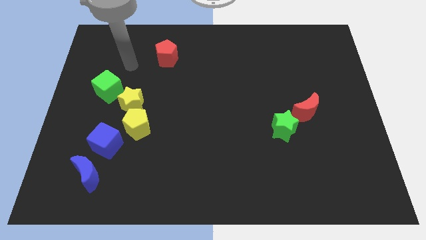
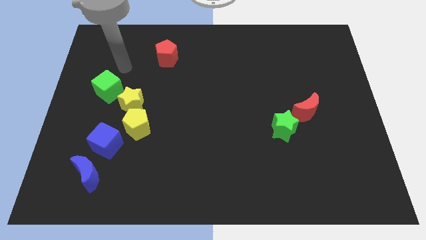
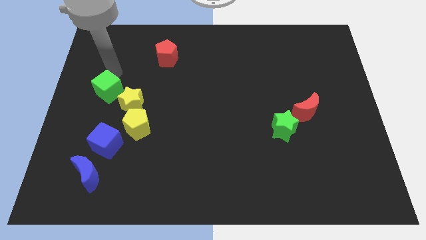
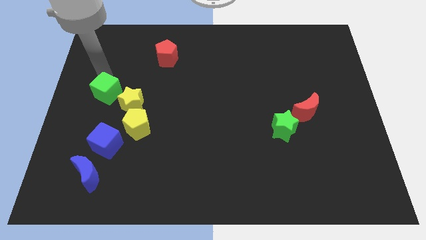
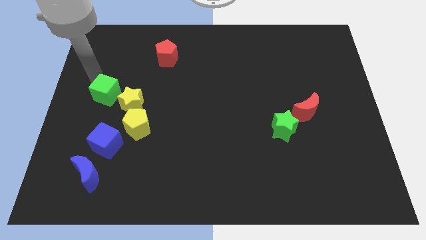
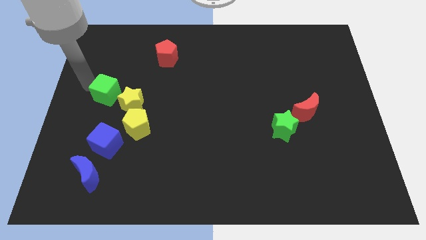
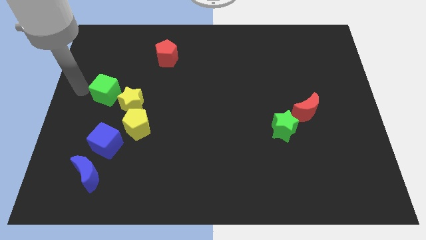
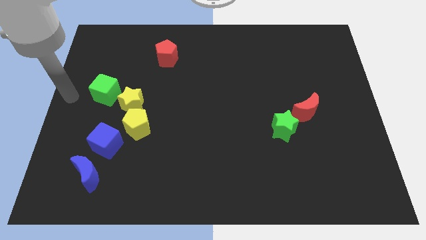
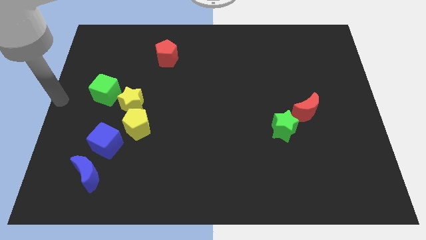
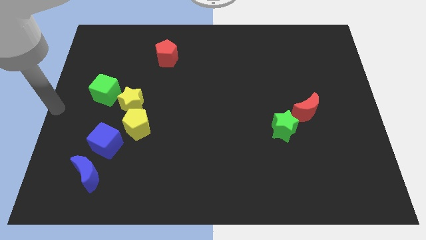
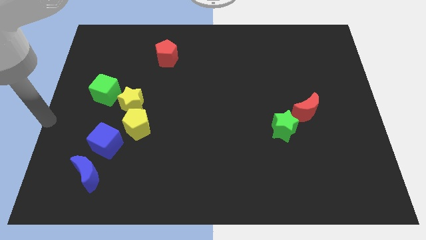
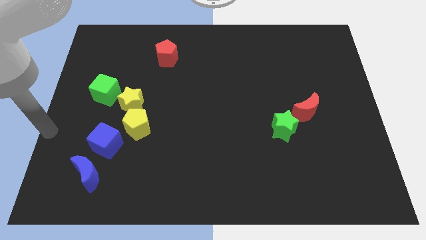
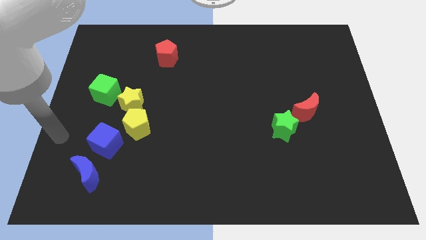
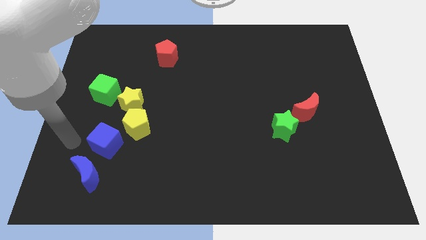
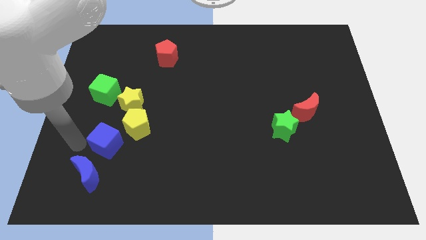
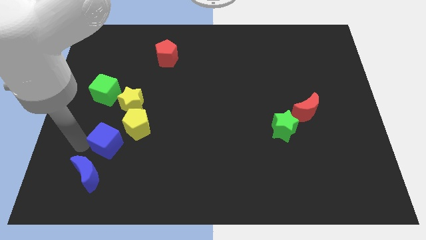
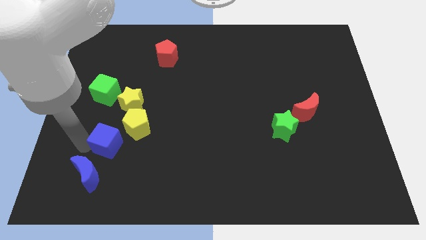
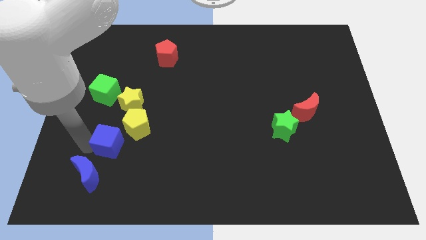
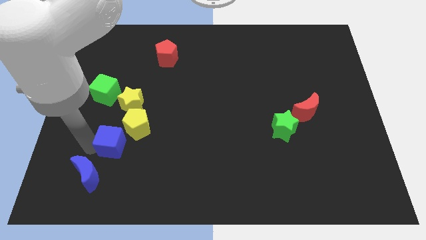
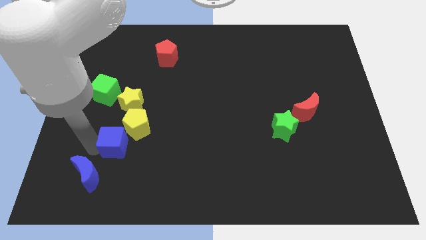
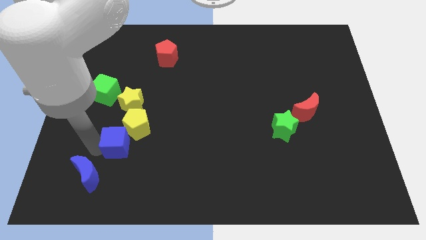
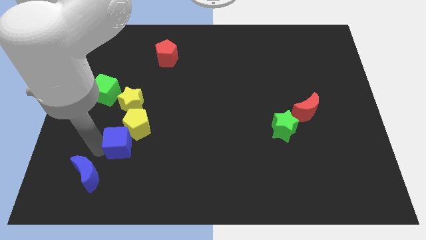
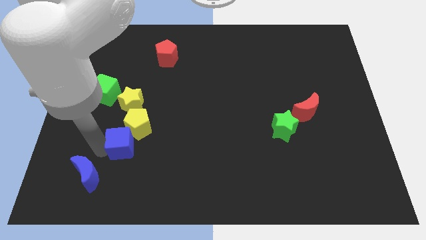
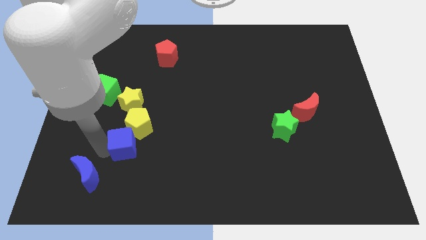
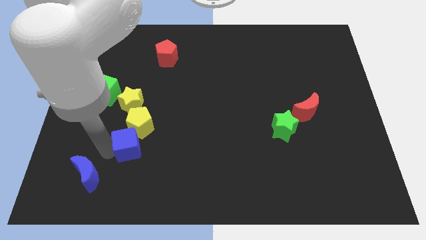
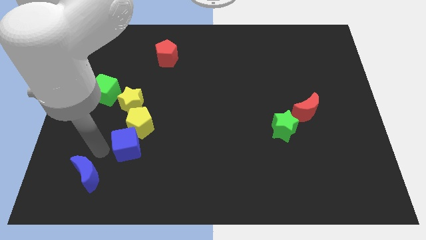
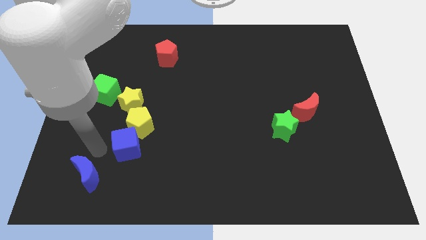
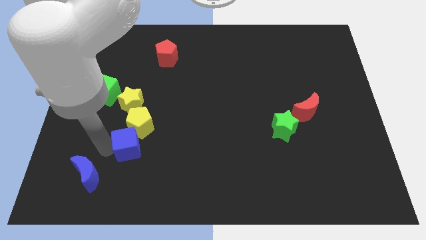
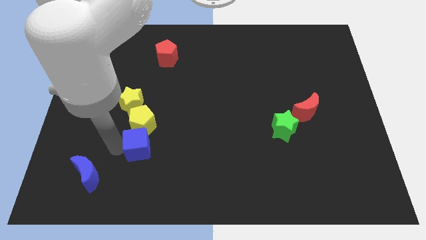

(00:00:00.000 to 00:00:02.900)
slide the blue cube to the right a little

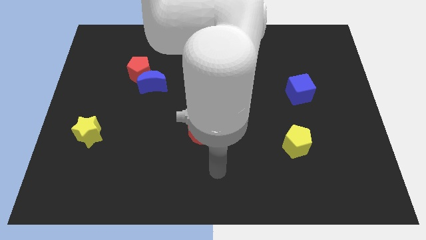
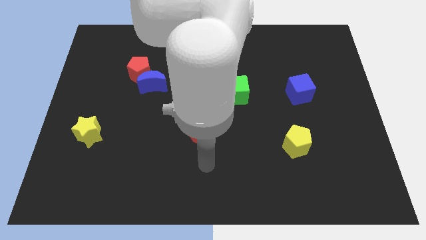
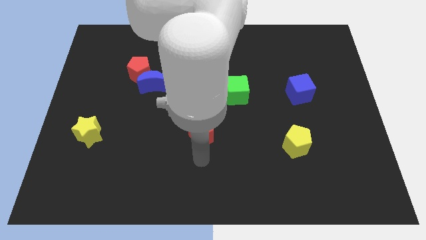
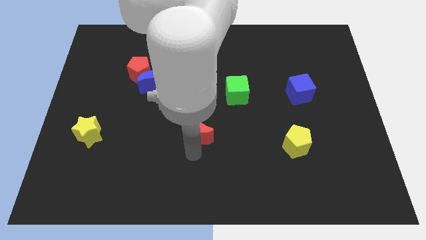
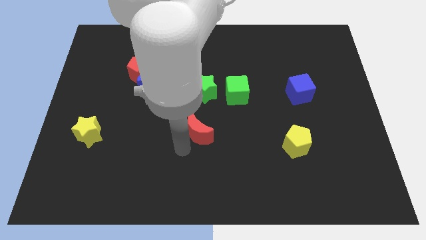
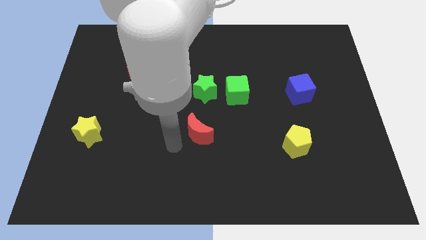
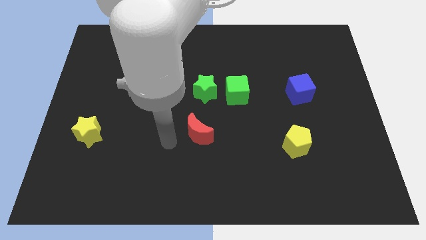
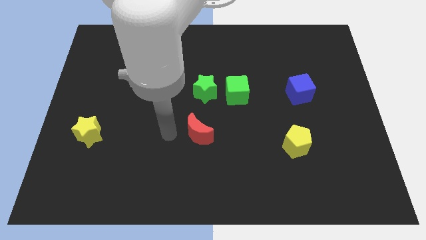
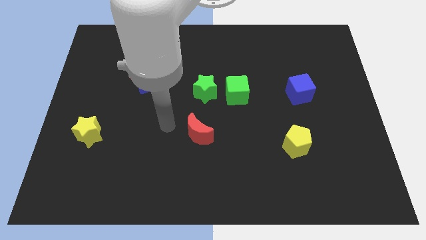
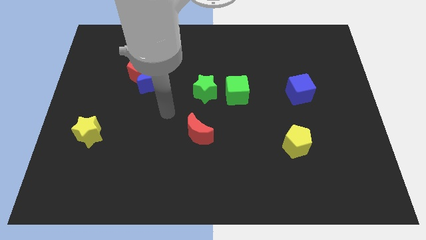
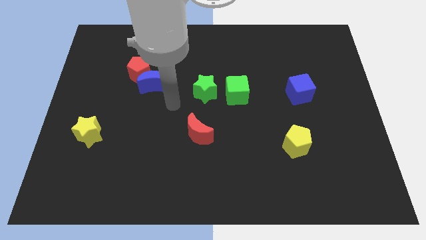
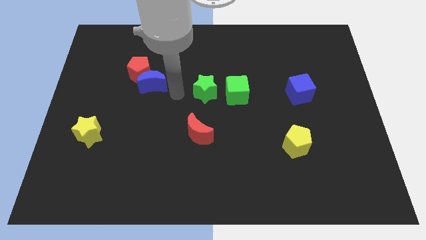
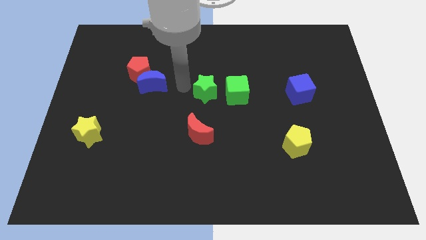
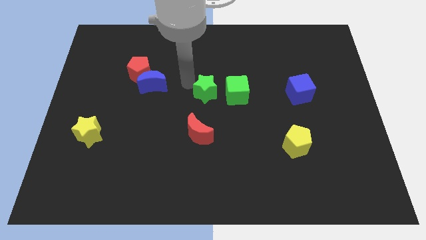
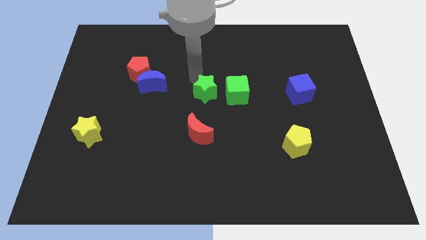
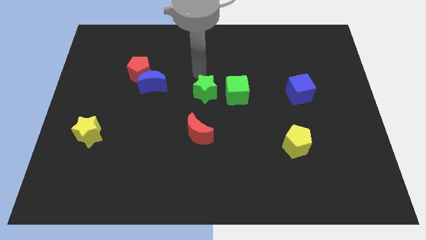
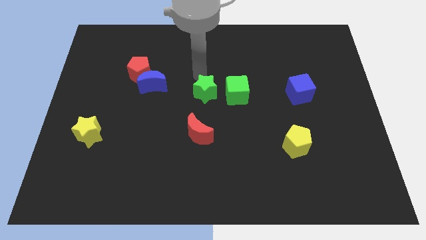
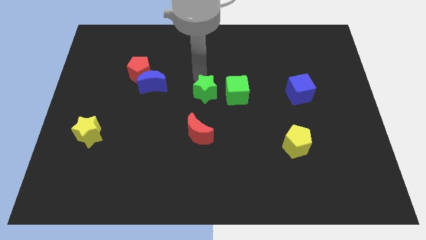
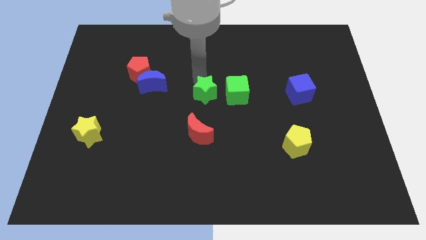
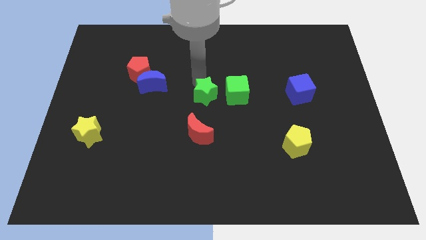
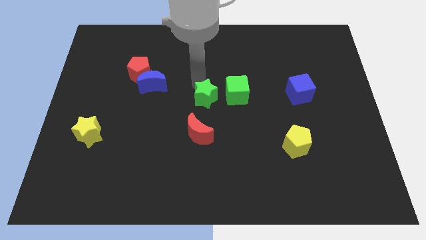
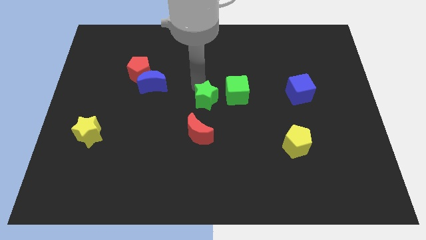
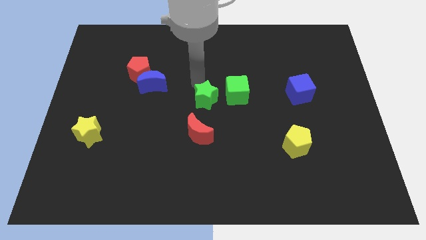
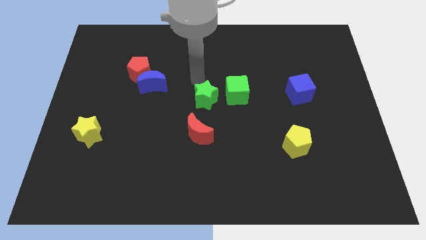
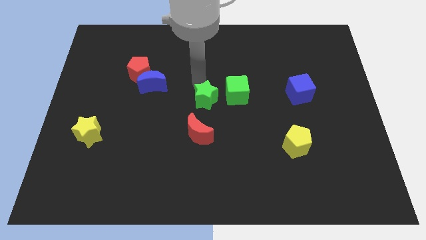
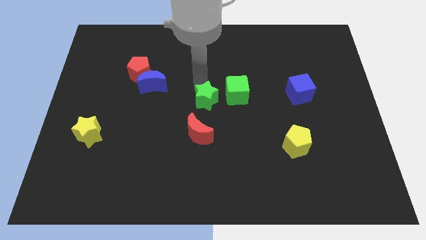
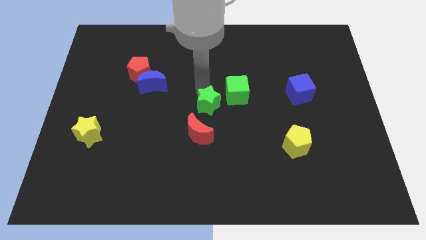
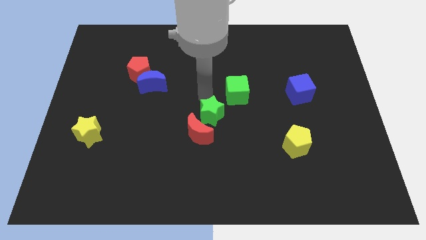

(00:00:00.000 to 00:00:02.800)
slightly move the green star downwards

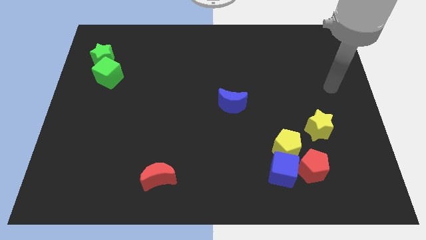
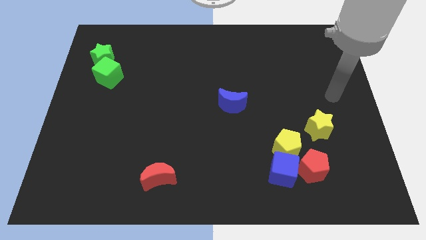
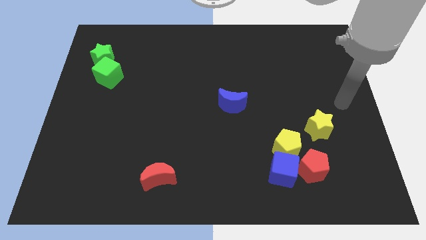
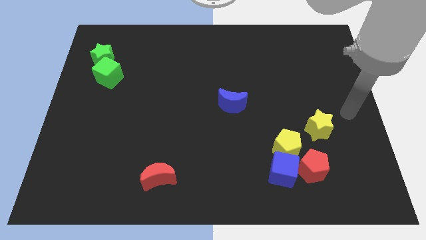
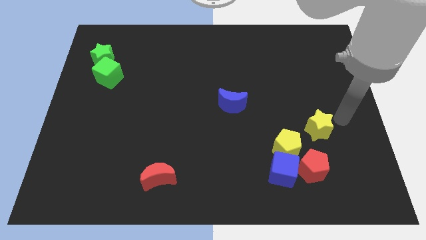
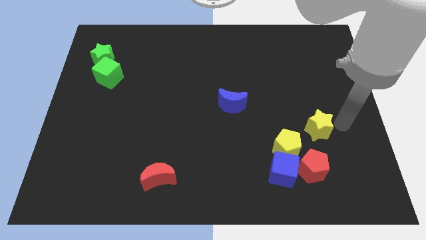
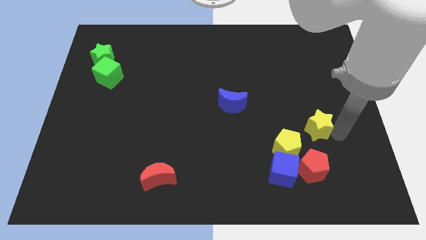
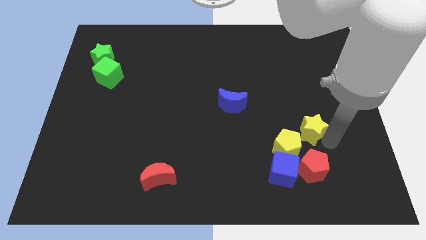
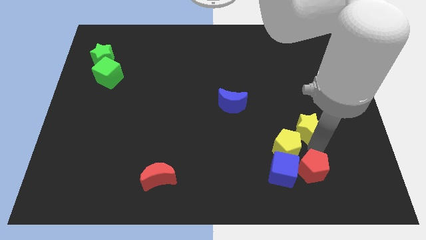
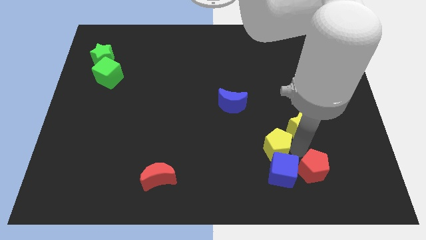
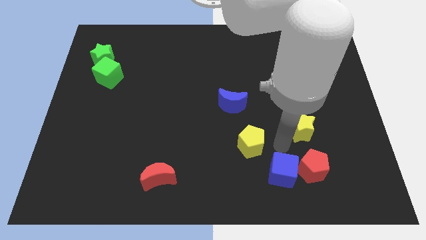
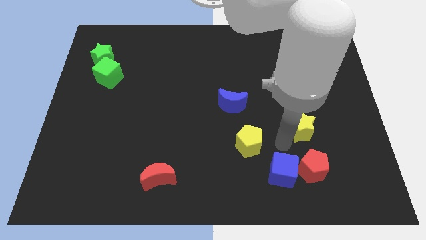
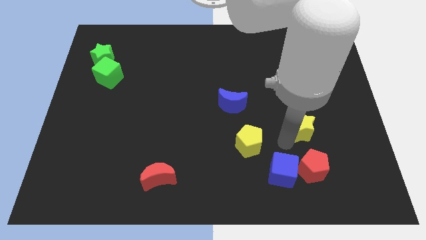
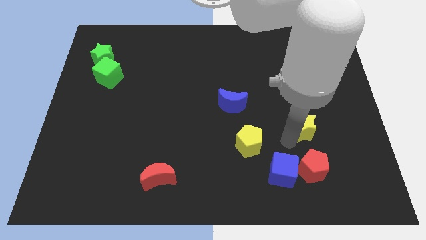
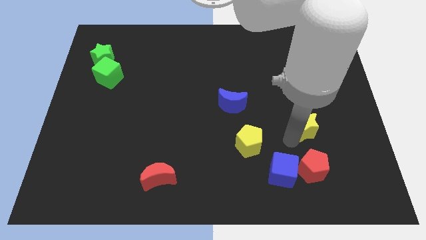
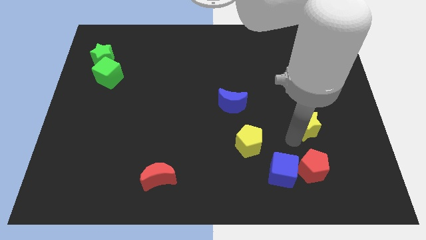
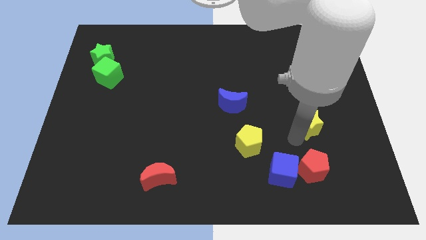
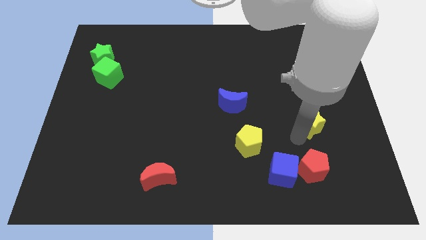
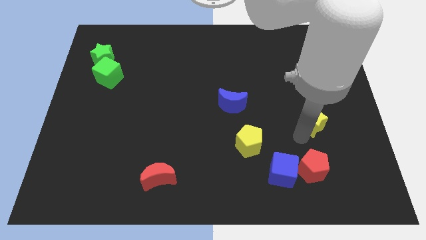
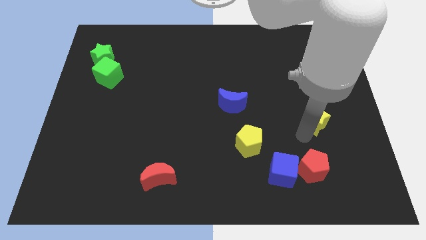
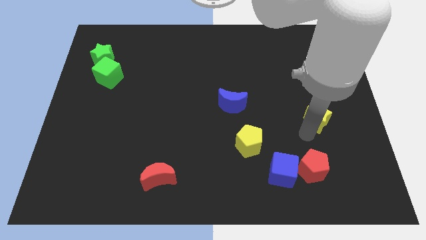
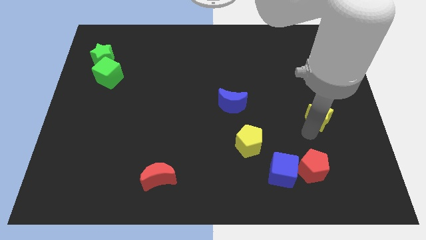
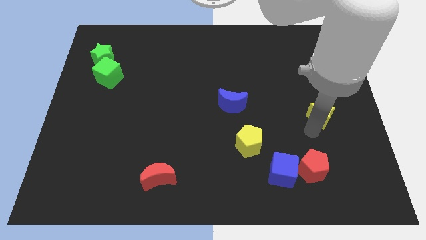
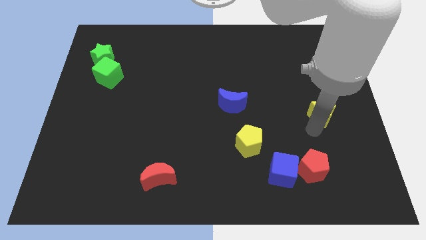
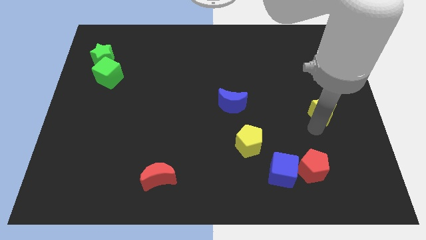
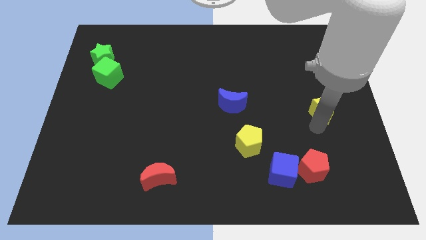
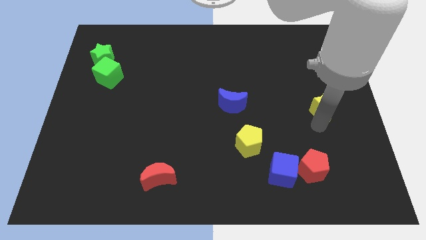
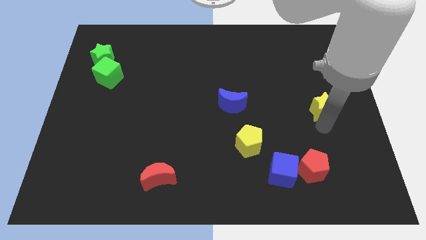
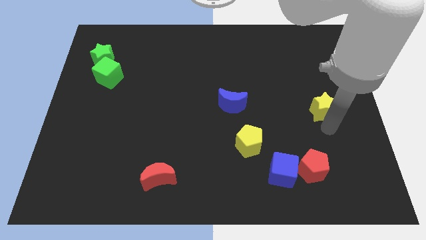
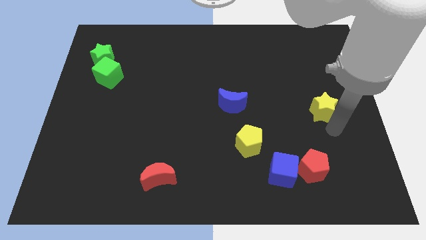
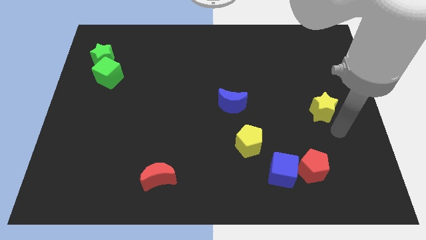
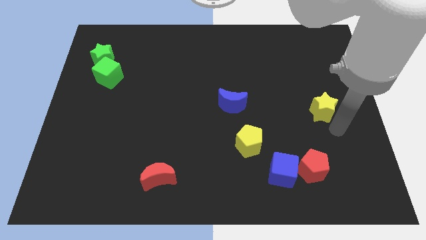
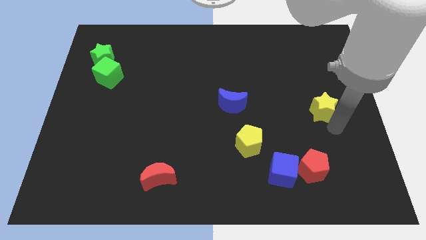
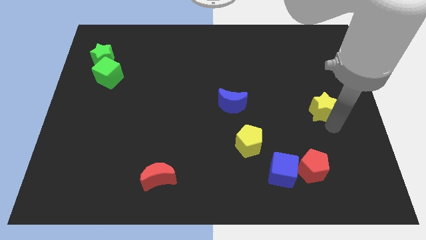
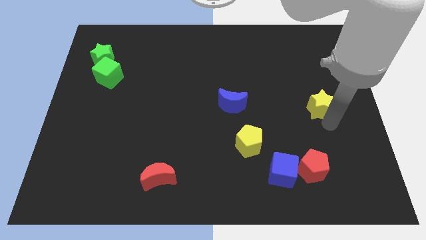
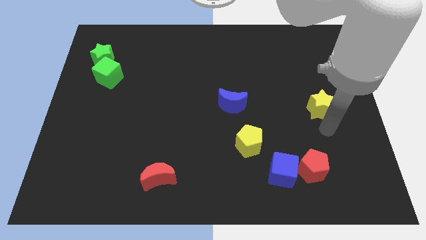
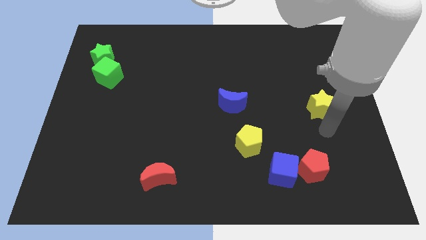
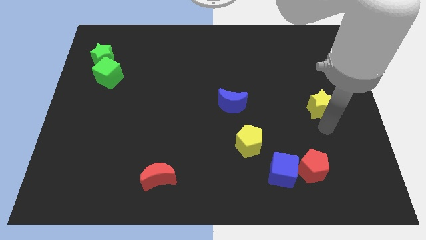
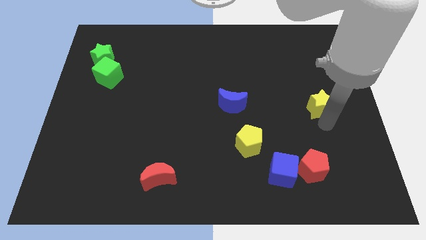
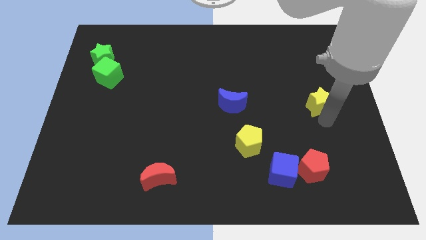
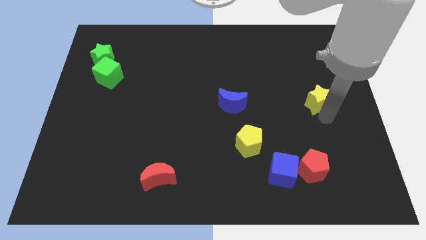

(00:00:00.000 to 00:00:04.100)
slightly move the yellow star upwards
